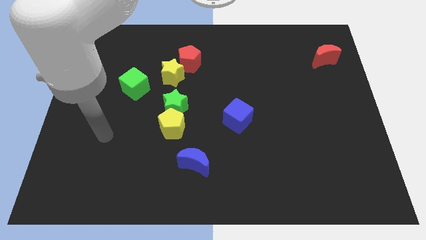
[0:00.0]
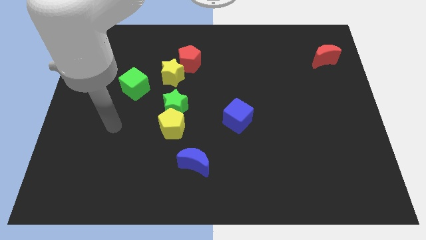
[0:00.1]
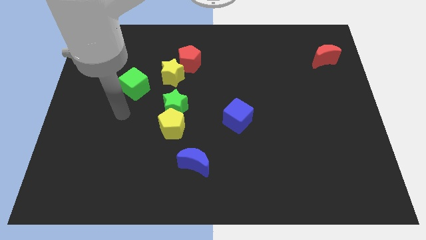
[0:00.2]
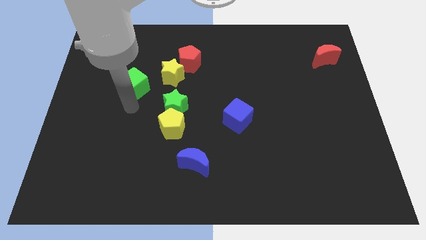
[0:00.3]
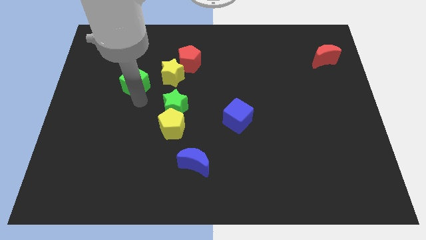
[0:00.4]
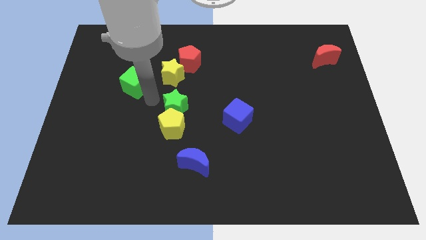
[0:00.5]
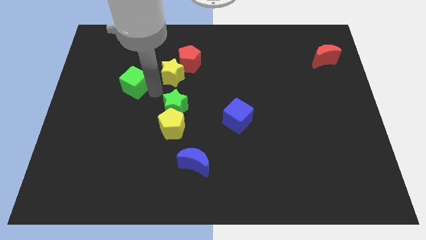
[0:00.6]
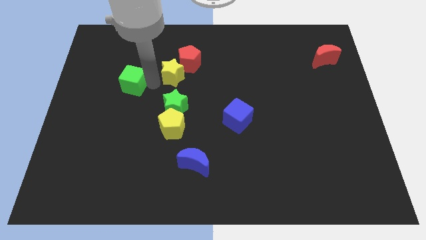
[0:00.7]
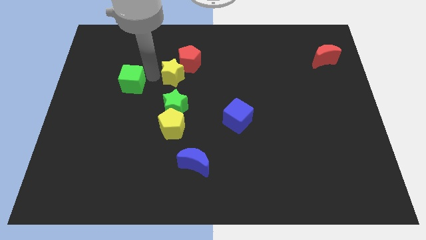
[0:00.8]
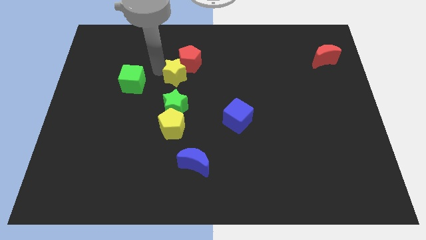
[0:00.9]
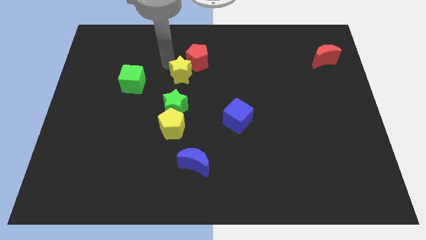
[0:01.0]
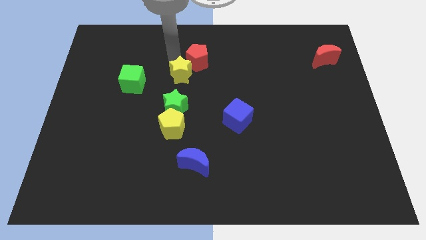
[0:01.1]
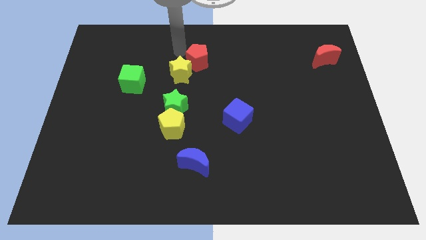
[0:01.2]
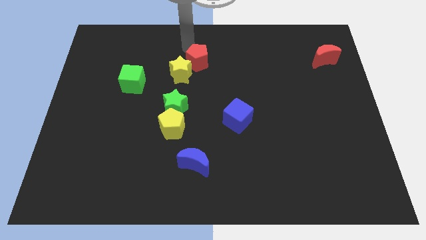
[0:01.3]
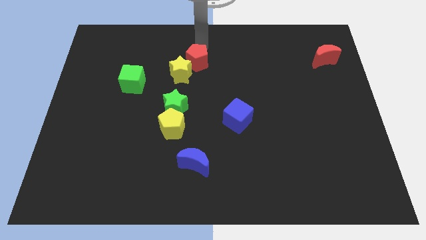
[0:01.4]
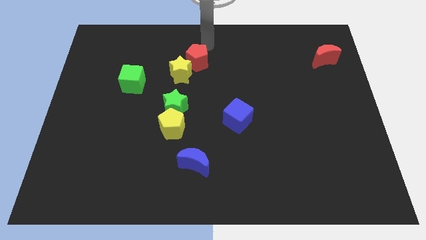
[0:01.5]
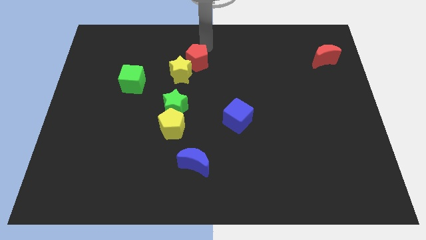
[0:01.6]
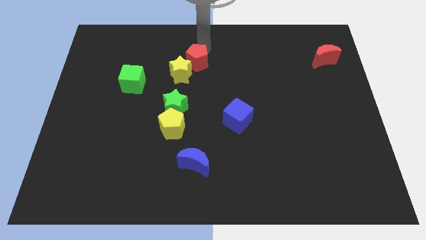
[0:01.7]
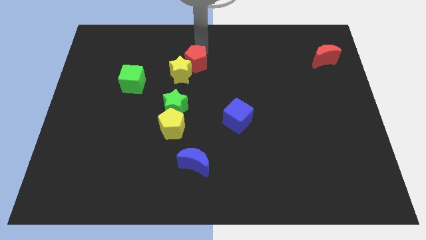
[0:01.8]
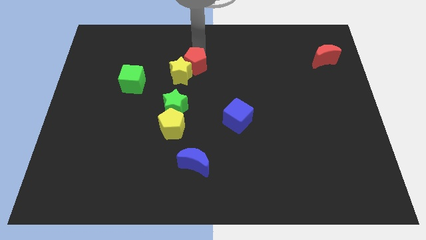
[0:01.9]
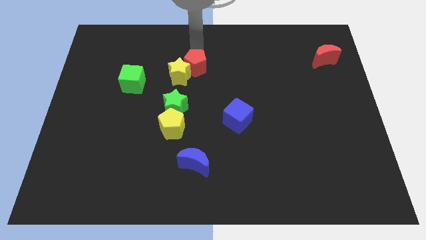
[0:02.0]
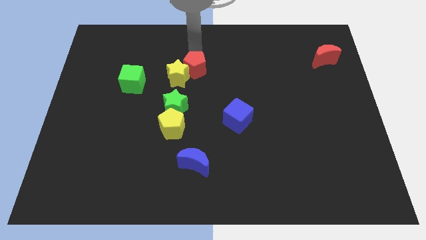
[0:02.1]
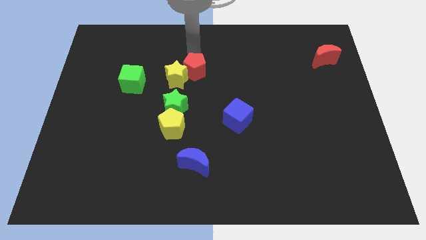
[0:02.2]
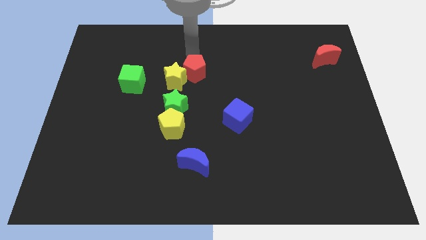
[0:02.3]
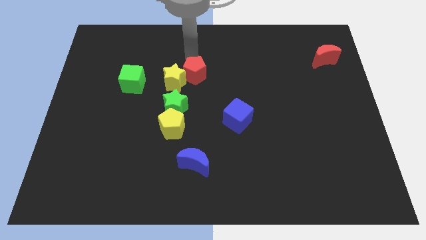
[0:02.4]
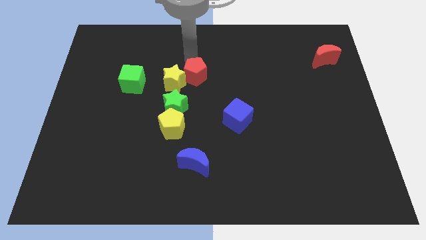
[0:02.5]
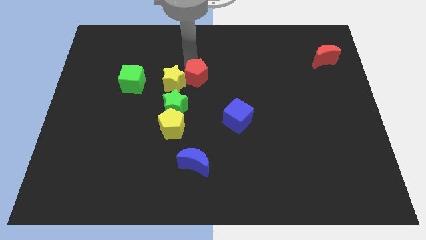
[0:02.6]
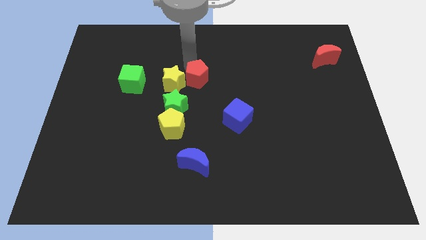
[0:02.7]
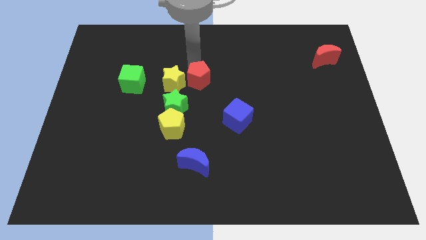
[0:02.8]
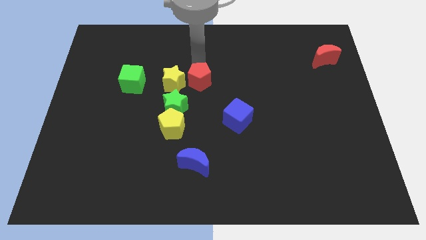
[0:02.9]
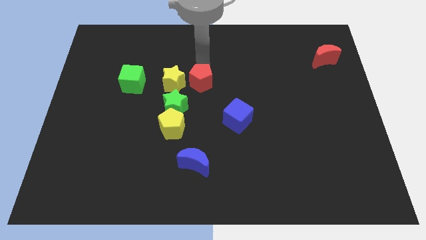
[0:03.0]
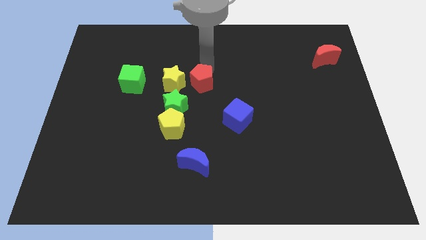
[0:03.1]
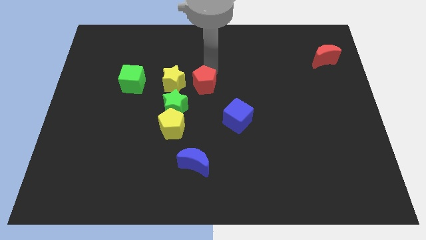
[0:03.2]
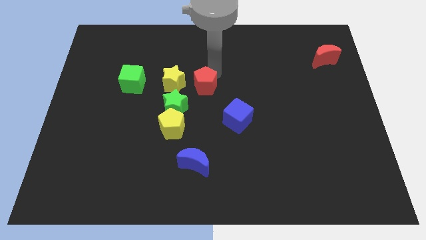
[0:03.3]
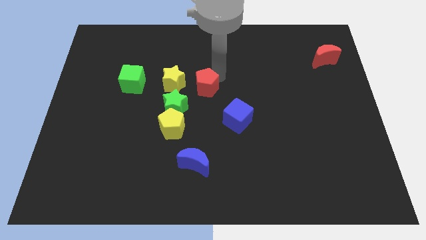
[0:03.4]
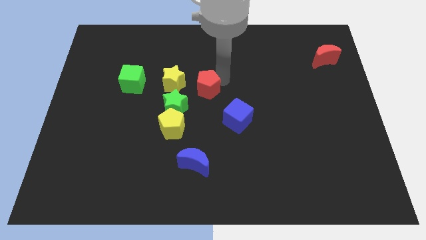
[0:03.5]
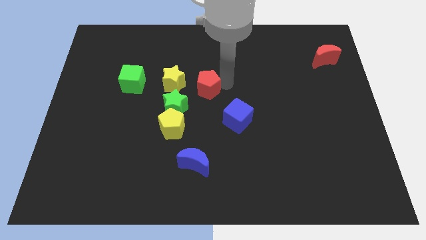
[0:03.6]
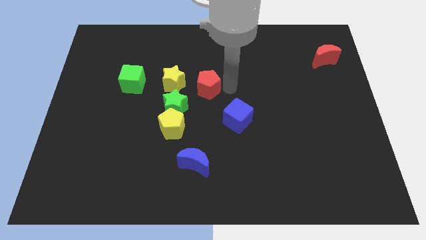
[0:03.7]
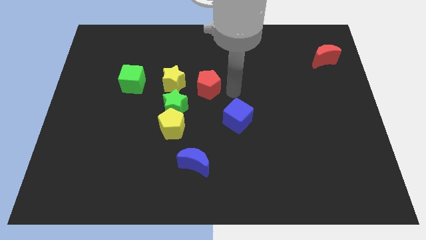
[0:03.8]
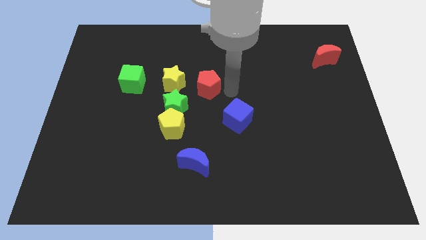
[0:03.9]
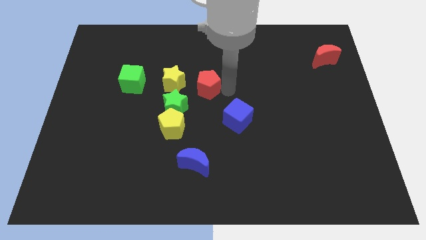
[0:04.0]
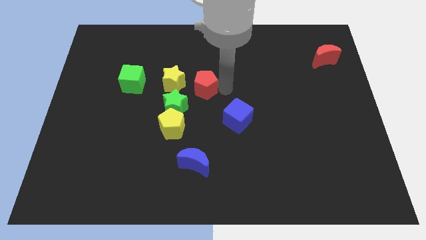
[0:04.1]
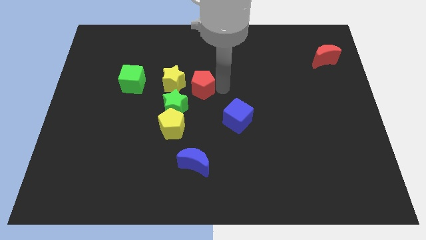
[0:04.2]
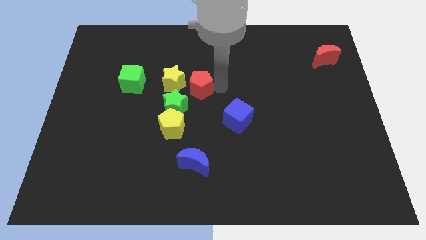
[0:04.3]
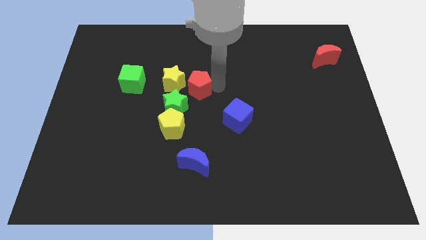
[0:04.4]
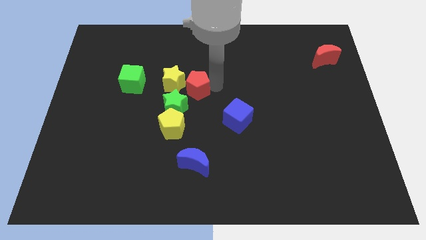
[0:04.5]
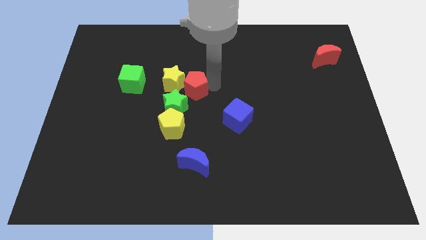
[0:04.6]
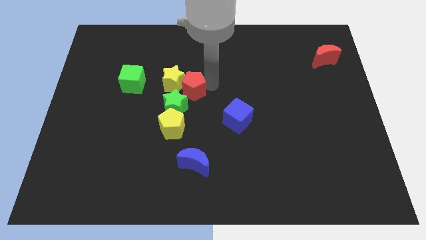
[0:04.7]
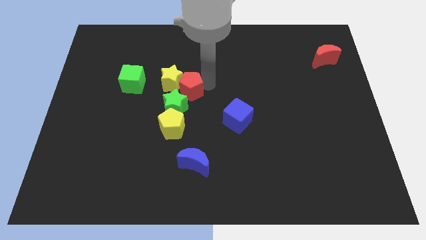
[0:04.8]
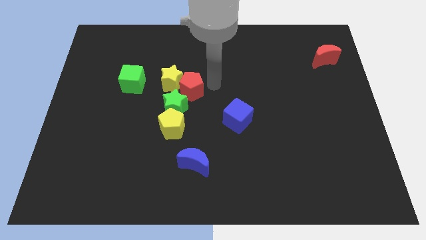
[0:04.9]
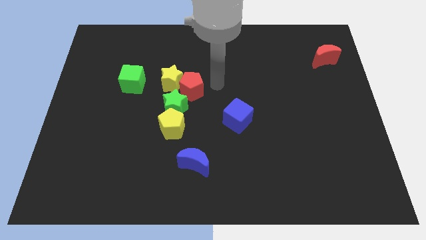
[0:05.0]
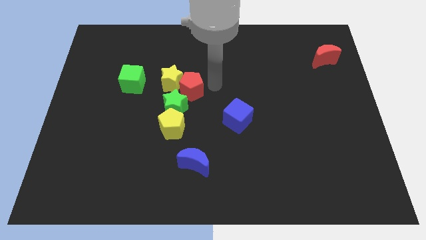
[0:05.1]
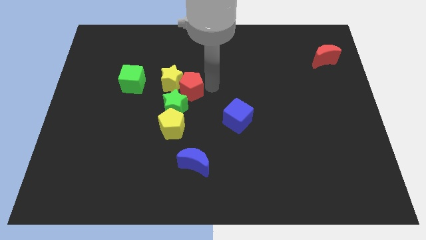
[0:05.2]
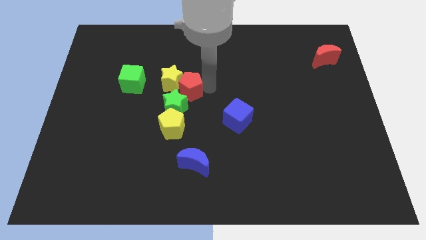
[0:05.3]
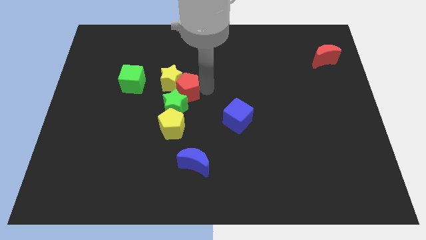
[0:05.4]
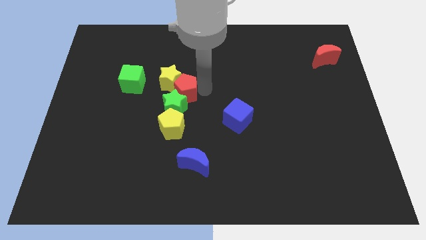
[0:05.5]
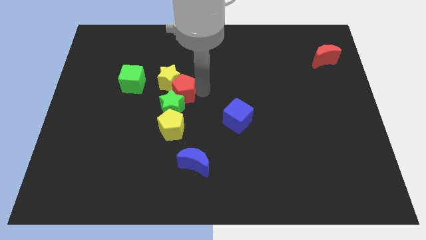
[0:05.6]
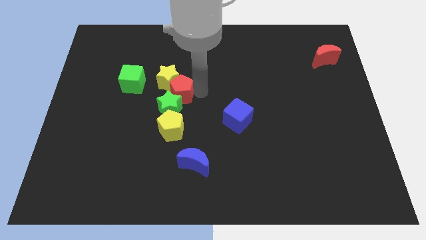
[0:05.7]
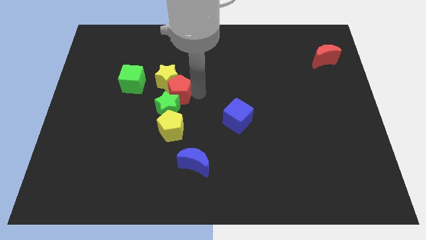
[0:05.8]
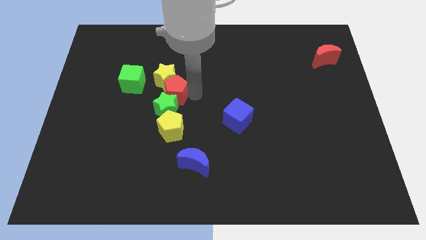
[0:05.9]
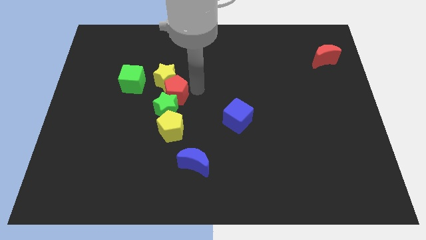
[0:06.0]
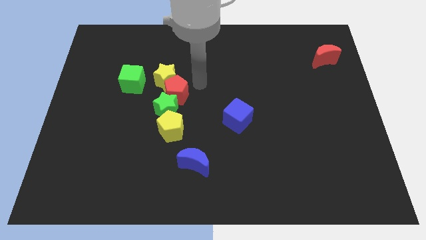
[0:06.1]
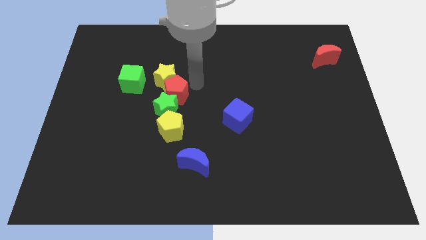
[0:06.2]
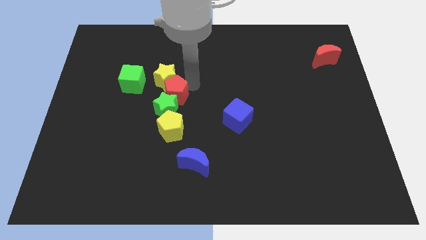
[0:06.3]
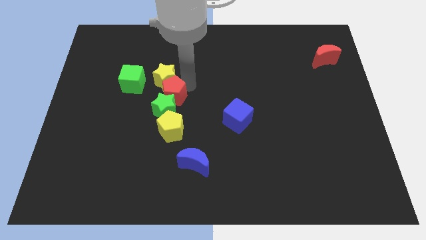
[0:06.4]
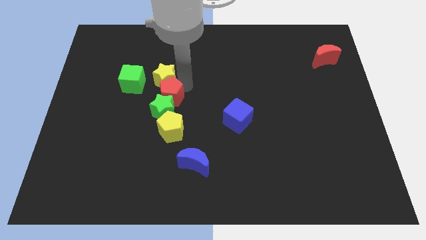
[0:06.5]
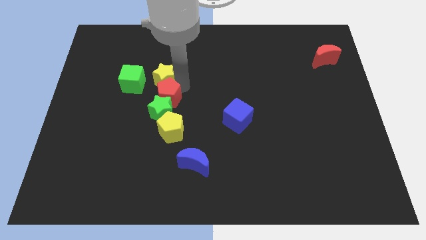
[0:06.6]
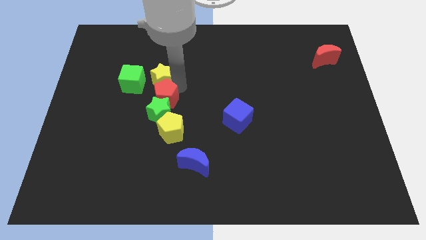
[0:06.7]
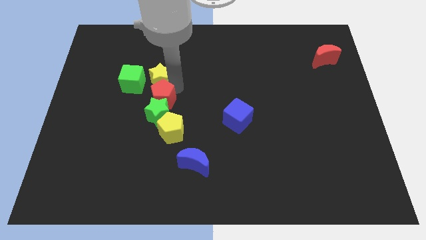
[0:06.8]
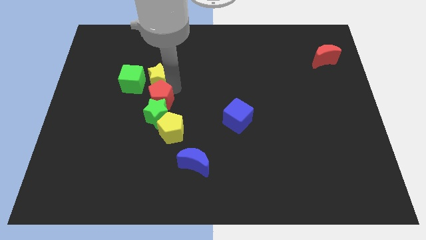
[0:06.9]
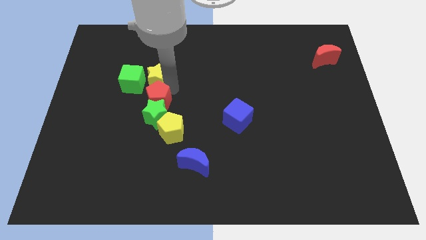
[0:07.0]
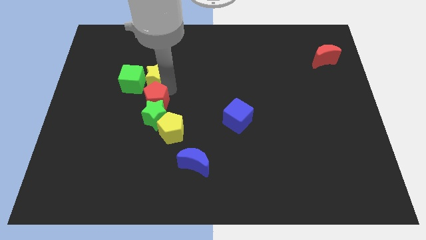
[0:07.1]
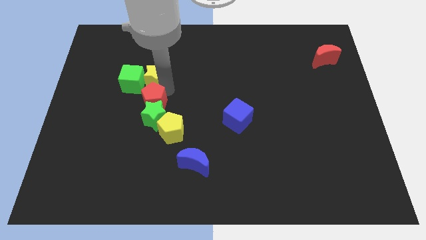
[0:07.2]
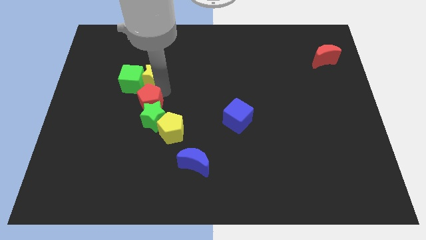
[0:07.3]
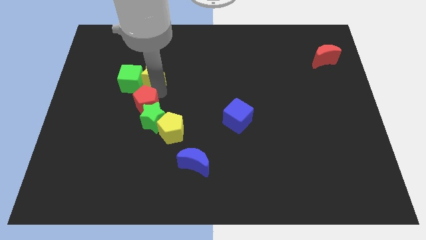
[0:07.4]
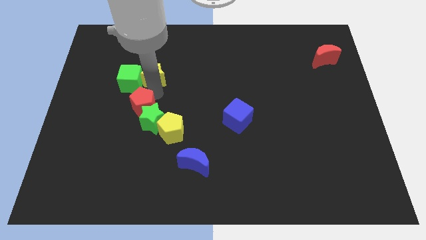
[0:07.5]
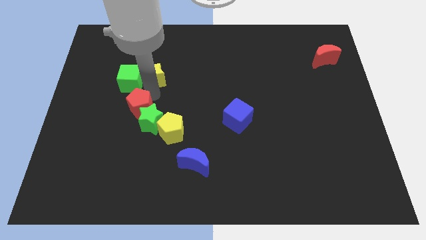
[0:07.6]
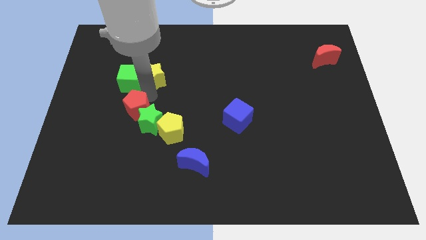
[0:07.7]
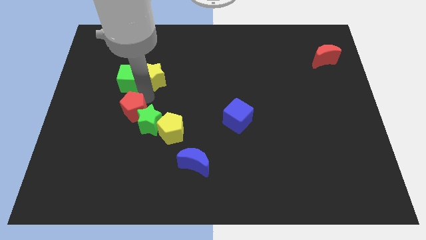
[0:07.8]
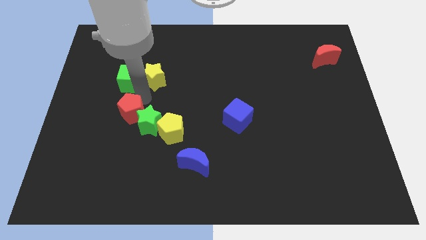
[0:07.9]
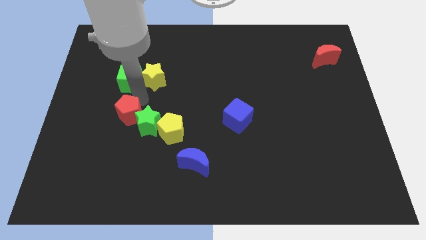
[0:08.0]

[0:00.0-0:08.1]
push the red pentagon left of the yellow pentagon
